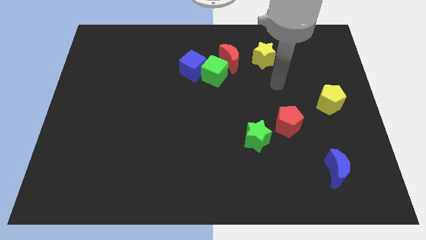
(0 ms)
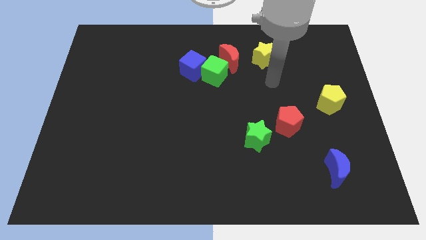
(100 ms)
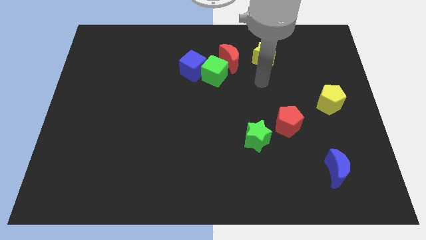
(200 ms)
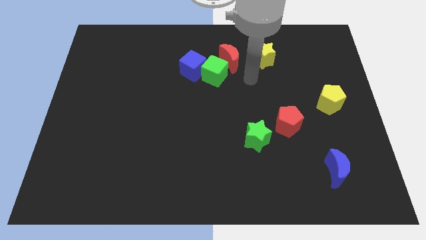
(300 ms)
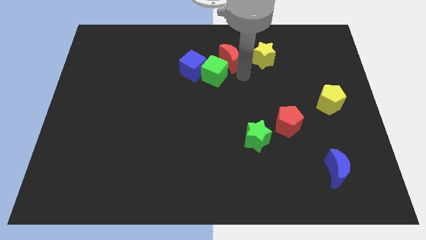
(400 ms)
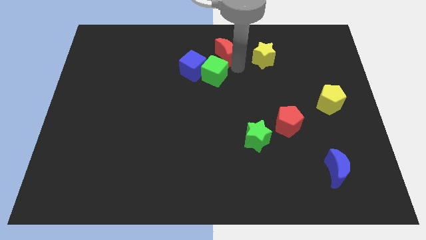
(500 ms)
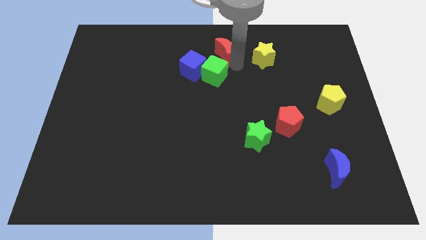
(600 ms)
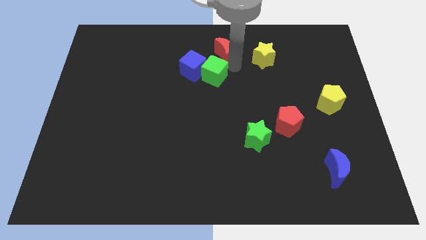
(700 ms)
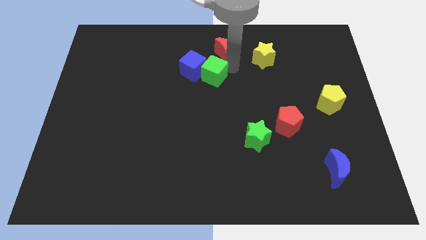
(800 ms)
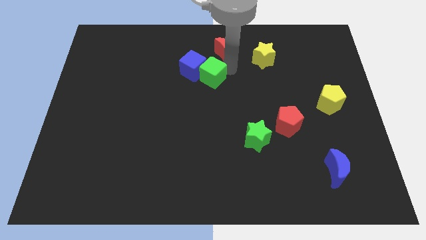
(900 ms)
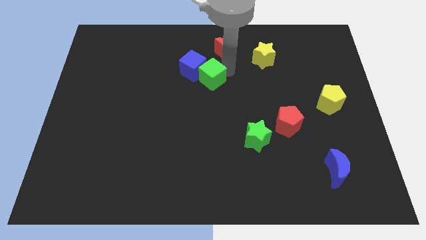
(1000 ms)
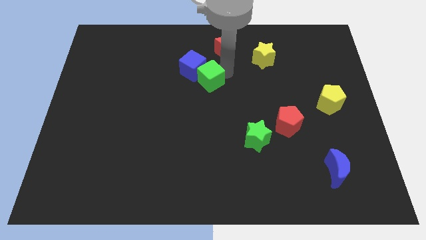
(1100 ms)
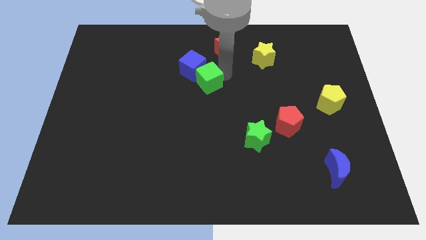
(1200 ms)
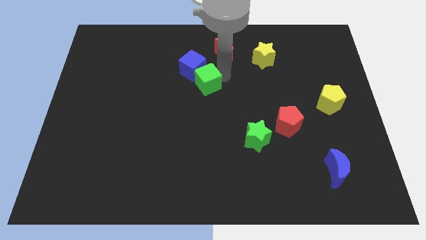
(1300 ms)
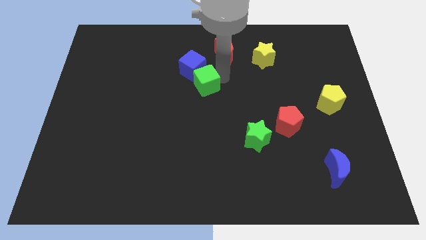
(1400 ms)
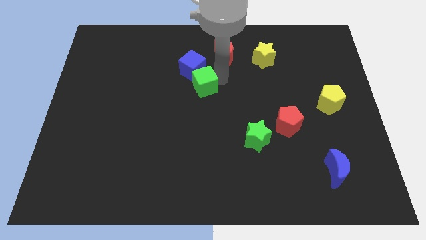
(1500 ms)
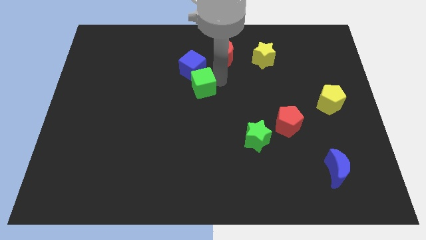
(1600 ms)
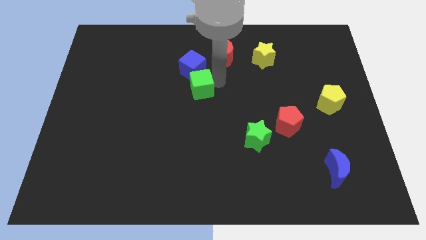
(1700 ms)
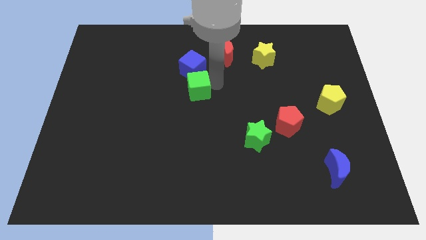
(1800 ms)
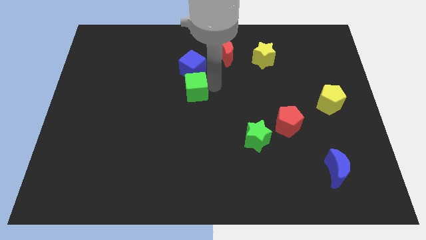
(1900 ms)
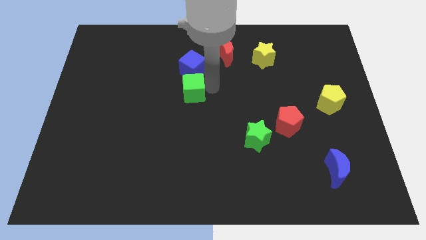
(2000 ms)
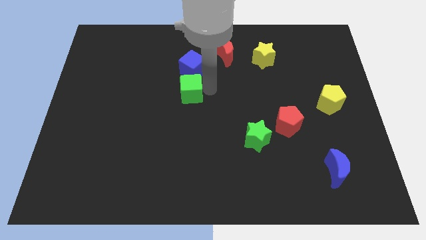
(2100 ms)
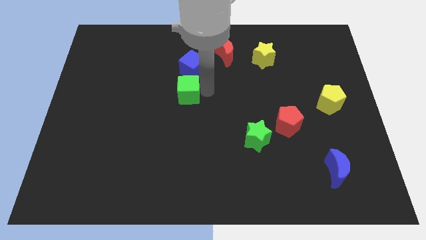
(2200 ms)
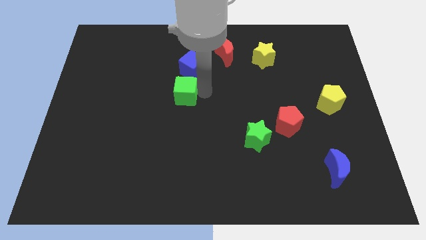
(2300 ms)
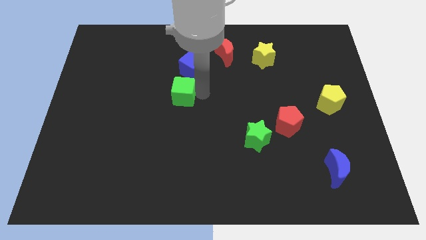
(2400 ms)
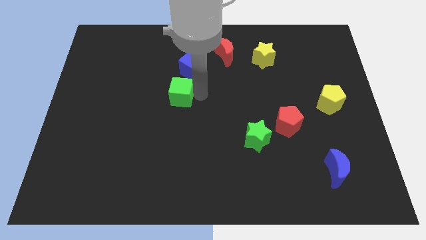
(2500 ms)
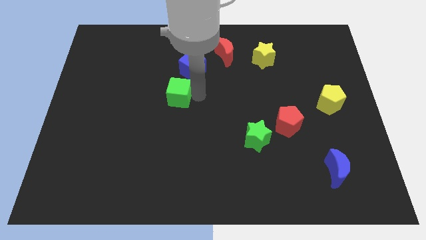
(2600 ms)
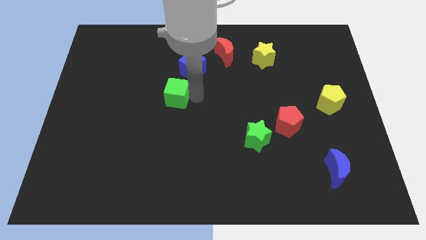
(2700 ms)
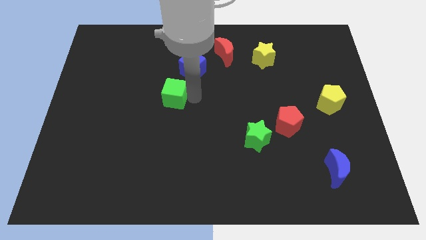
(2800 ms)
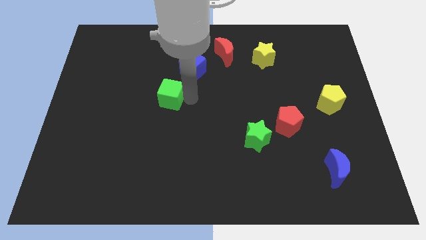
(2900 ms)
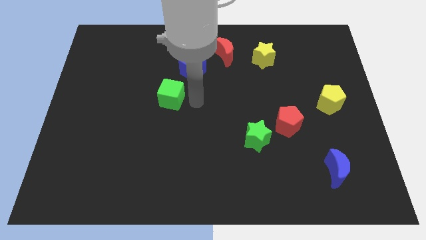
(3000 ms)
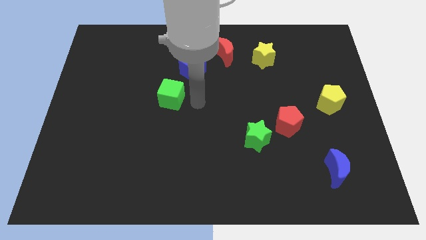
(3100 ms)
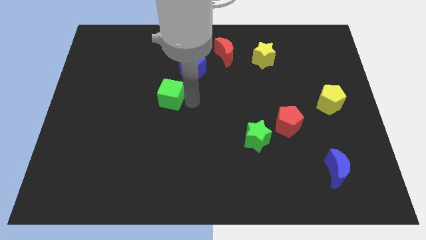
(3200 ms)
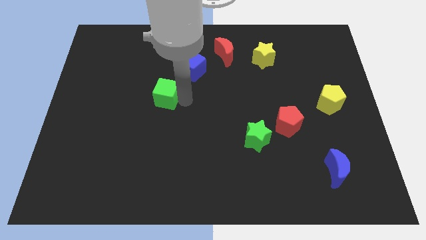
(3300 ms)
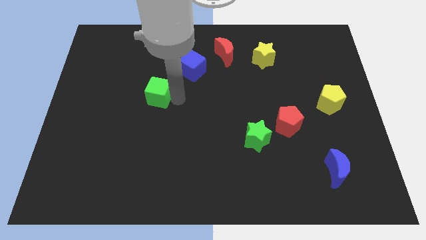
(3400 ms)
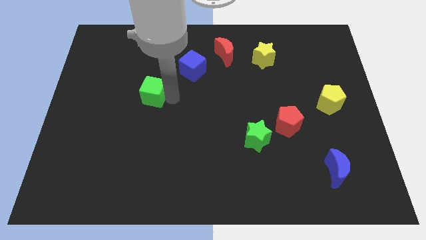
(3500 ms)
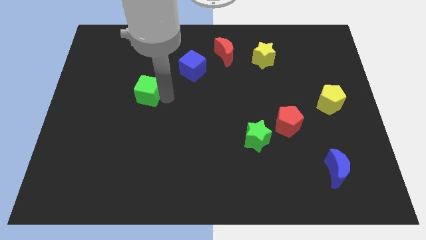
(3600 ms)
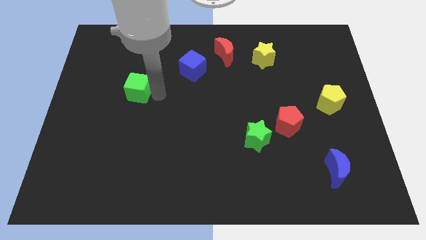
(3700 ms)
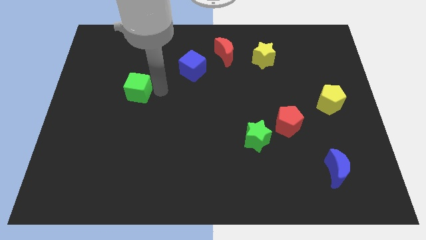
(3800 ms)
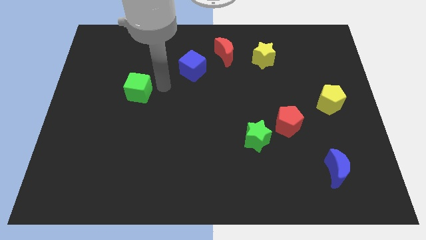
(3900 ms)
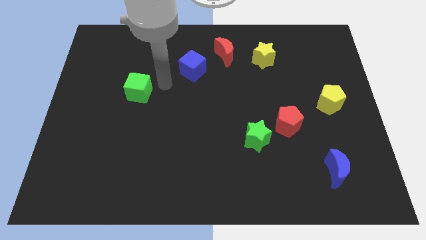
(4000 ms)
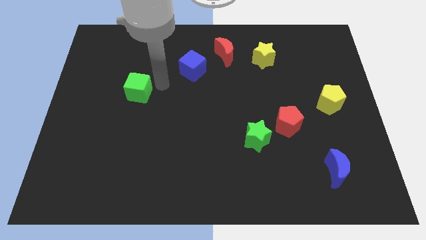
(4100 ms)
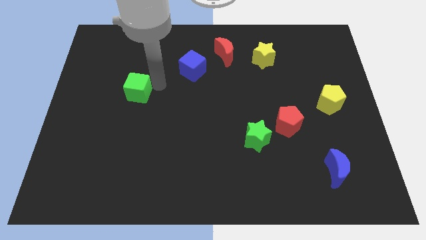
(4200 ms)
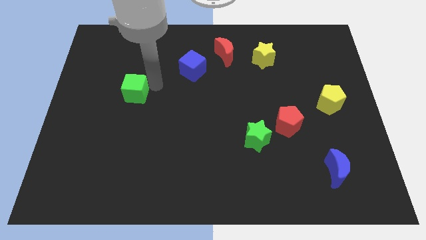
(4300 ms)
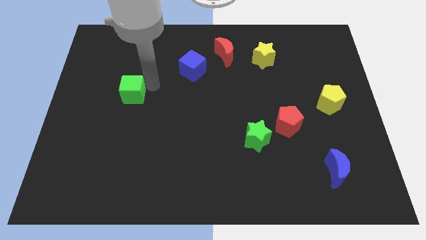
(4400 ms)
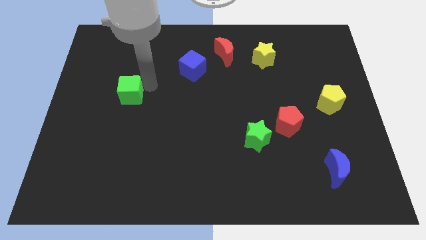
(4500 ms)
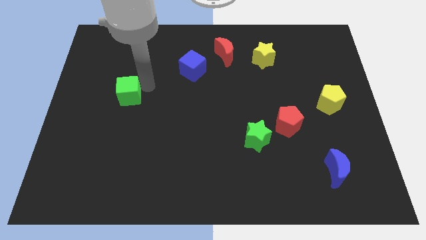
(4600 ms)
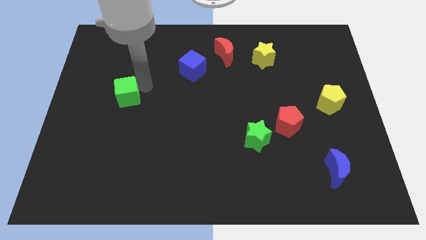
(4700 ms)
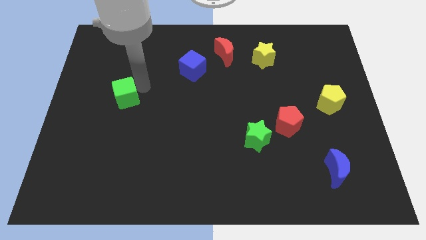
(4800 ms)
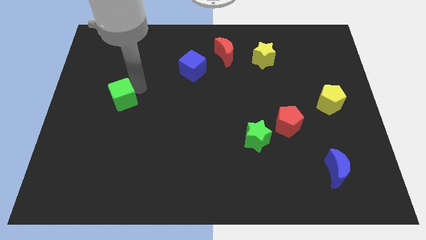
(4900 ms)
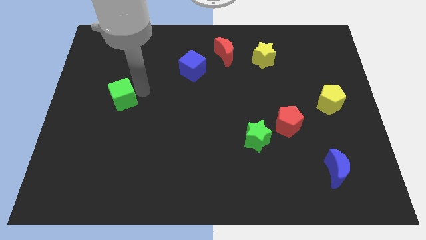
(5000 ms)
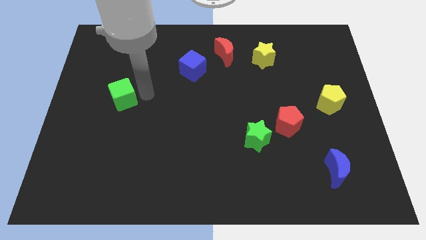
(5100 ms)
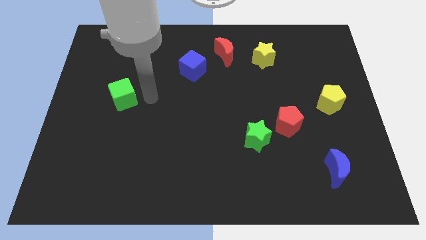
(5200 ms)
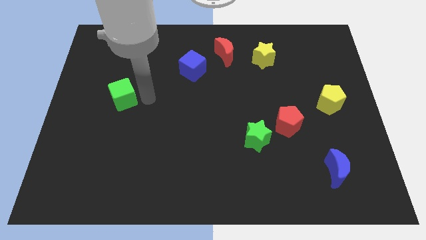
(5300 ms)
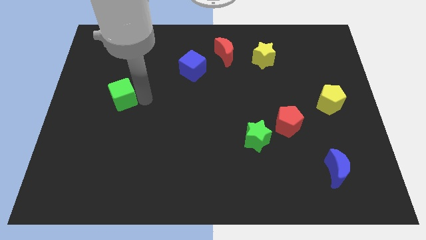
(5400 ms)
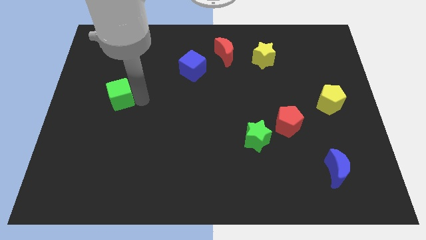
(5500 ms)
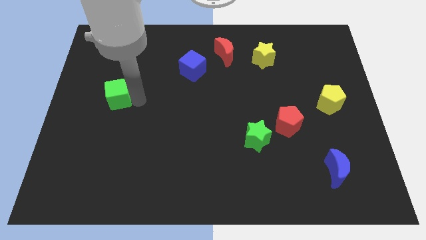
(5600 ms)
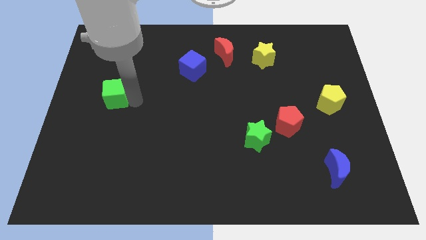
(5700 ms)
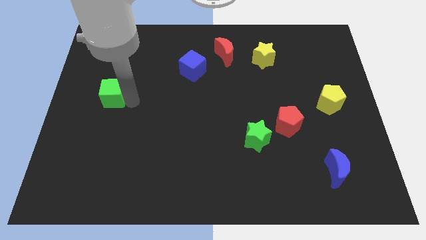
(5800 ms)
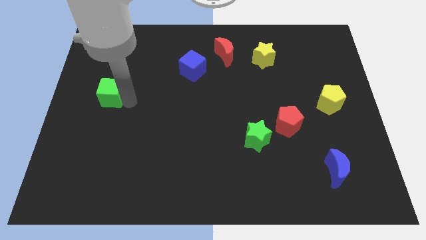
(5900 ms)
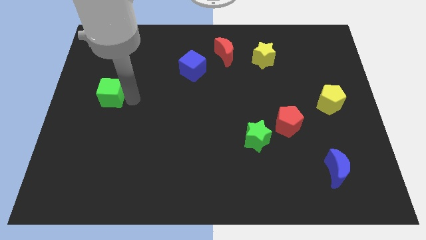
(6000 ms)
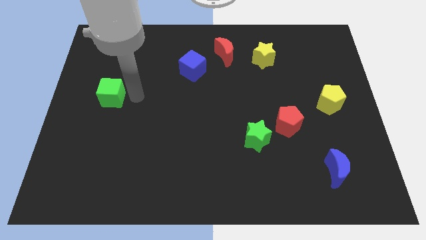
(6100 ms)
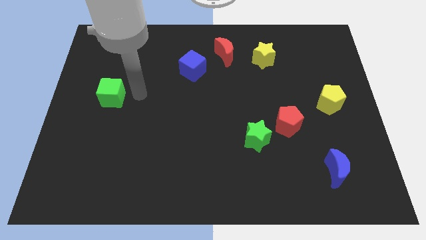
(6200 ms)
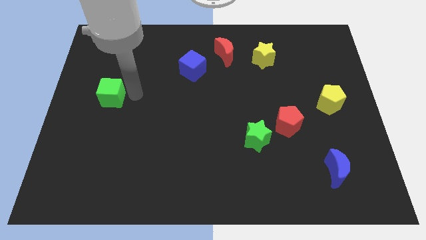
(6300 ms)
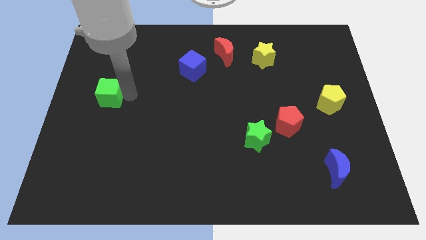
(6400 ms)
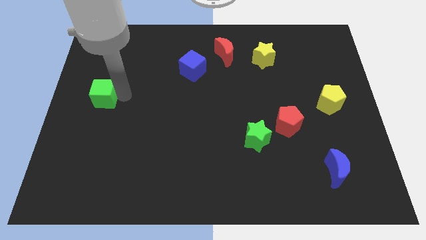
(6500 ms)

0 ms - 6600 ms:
move the green cube to the left side of the board

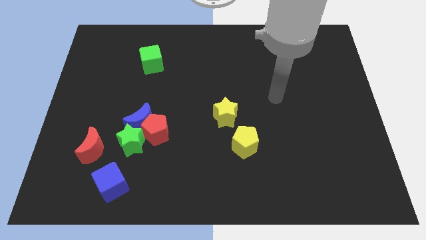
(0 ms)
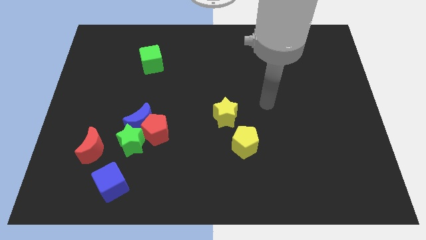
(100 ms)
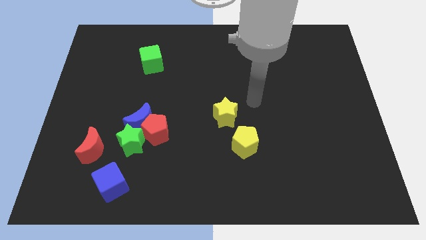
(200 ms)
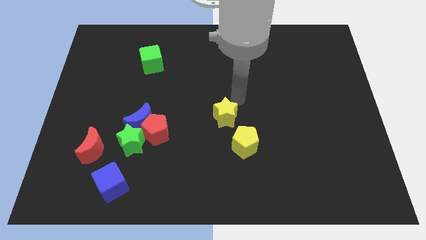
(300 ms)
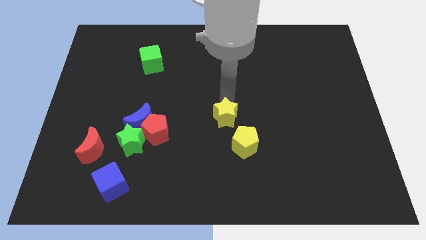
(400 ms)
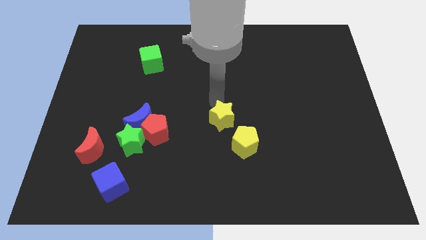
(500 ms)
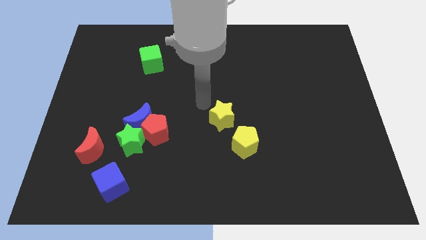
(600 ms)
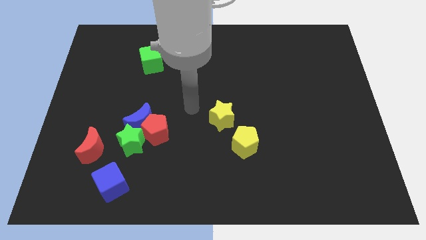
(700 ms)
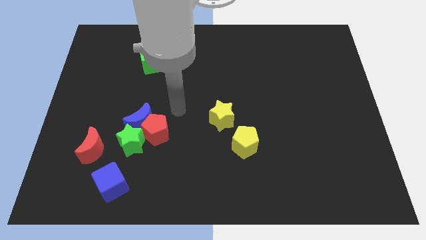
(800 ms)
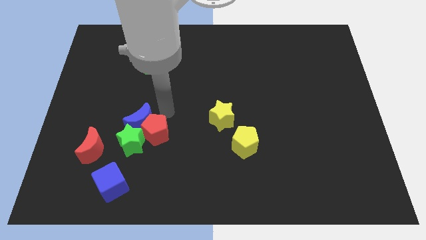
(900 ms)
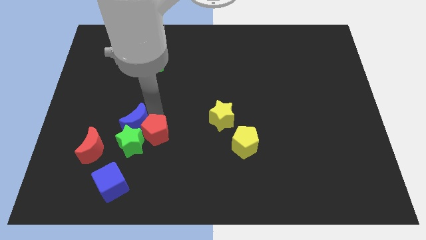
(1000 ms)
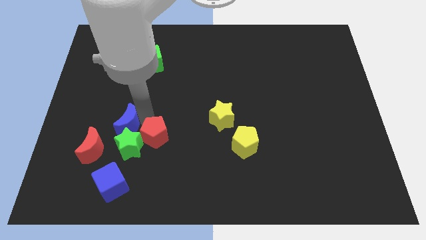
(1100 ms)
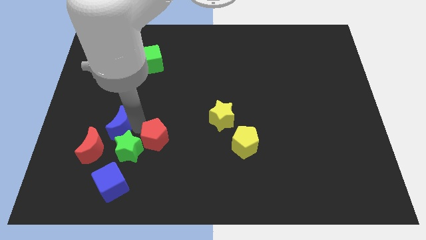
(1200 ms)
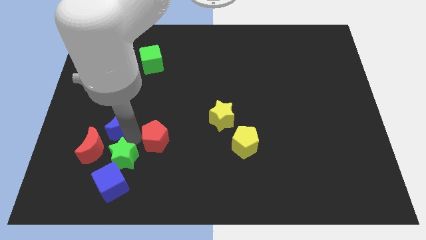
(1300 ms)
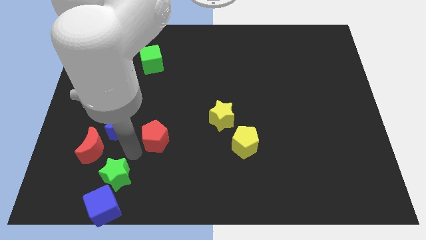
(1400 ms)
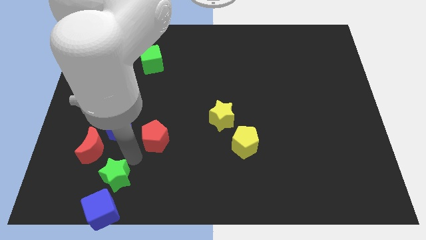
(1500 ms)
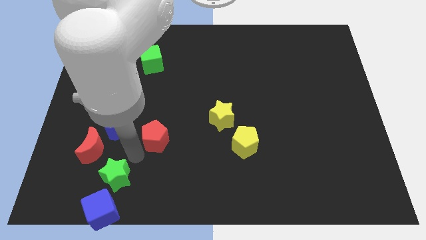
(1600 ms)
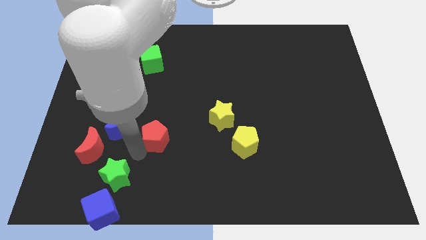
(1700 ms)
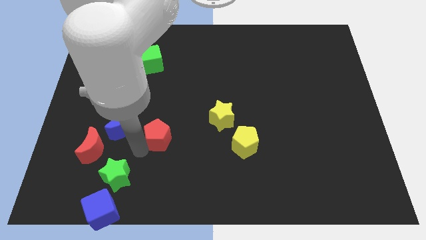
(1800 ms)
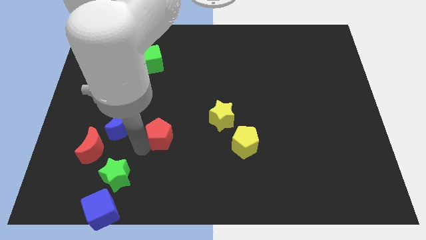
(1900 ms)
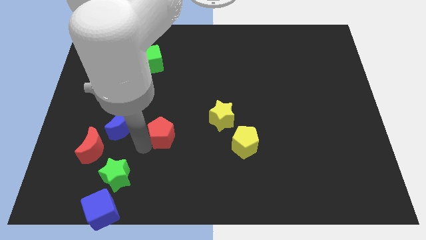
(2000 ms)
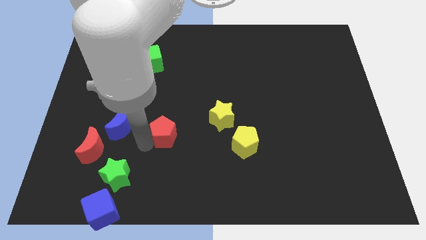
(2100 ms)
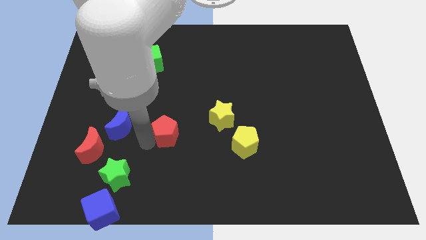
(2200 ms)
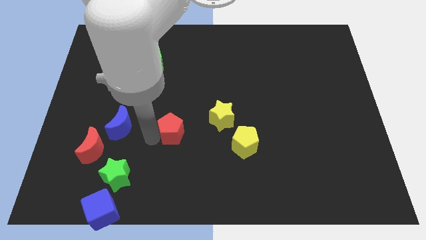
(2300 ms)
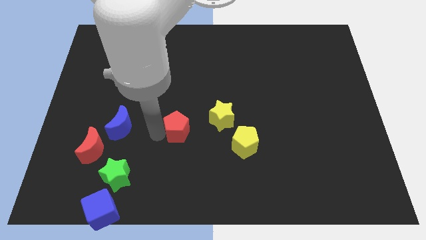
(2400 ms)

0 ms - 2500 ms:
slide the red pentagon to the middle

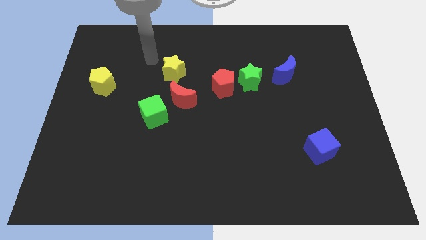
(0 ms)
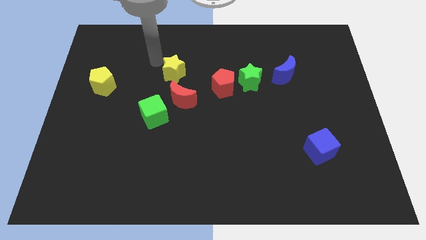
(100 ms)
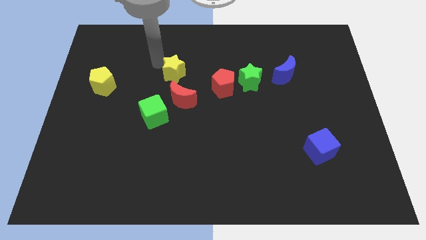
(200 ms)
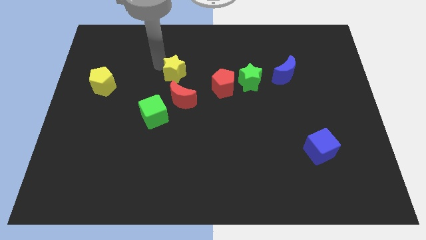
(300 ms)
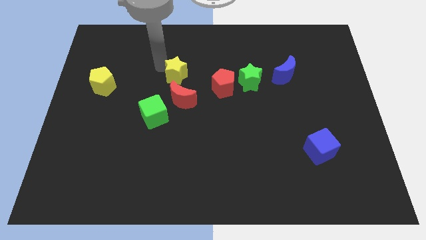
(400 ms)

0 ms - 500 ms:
push the yellow star to the center of the board
